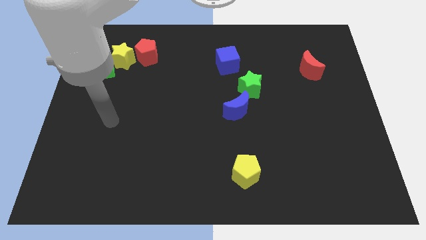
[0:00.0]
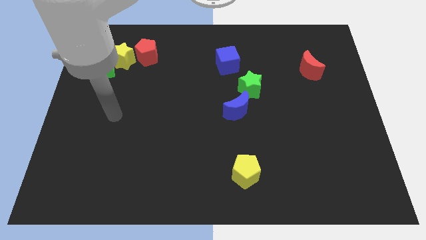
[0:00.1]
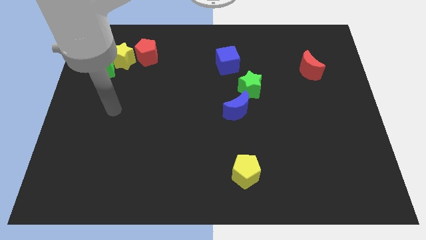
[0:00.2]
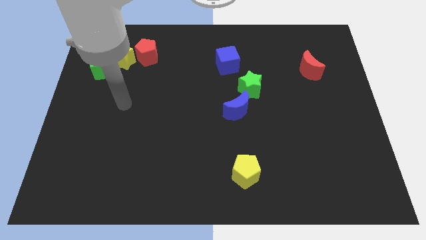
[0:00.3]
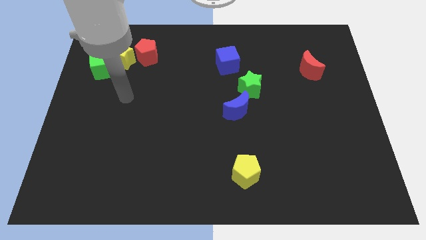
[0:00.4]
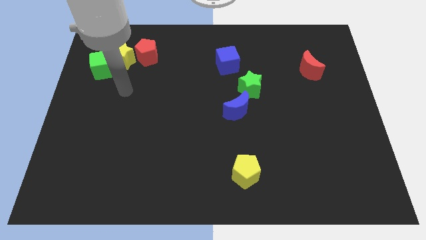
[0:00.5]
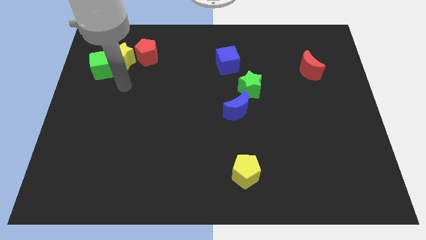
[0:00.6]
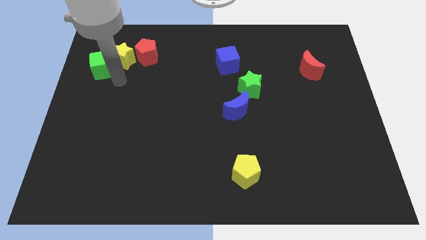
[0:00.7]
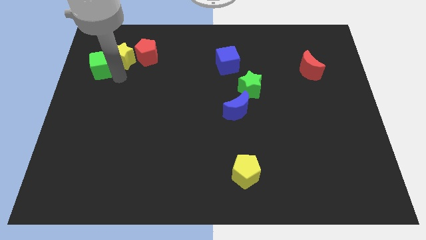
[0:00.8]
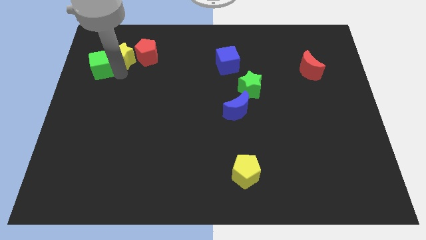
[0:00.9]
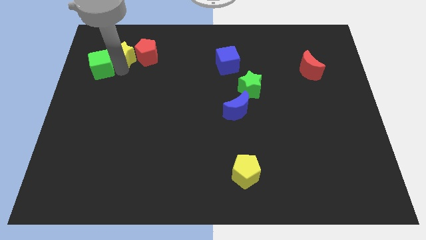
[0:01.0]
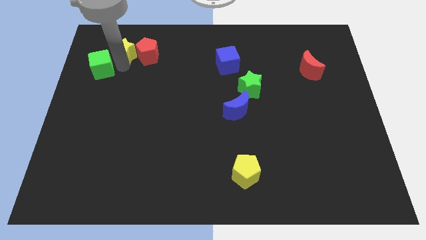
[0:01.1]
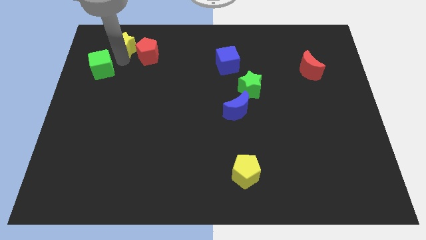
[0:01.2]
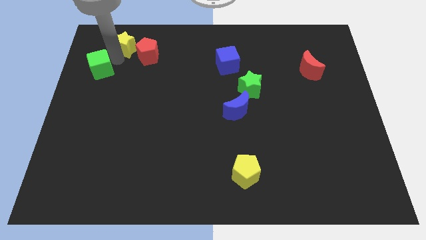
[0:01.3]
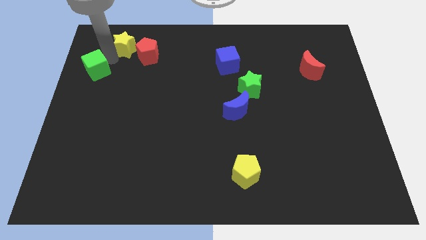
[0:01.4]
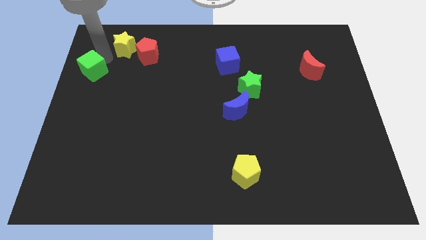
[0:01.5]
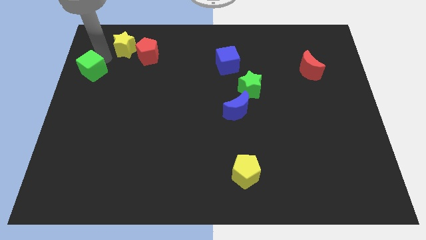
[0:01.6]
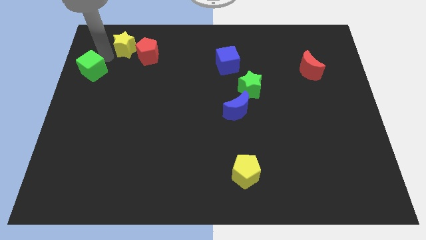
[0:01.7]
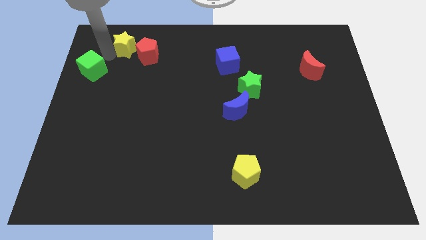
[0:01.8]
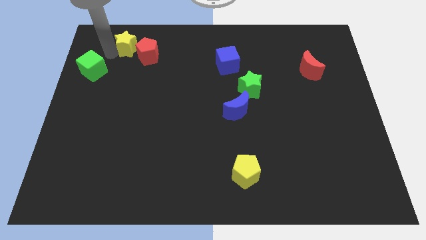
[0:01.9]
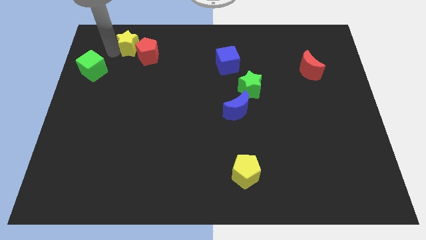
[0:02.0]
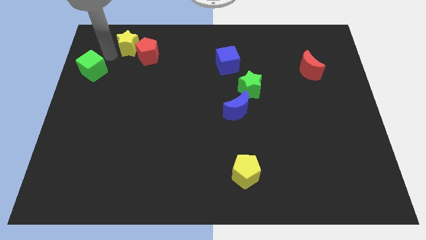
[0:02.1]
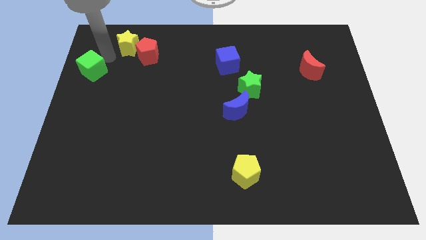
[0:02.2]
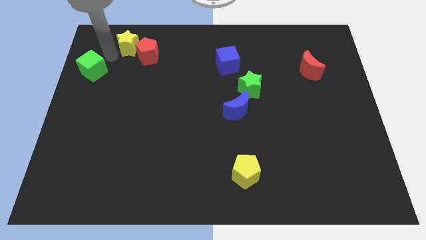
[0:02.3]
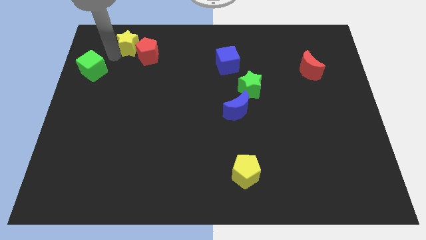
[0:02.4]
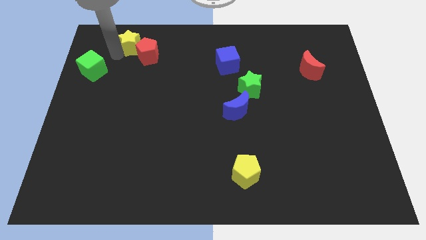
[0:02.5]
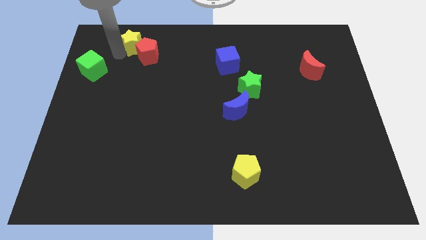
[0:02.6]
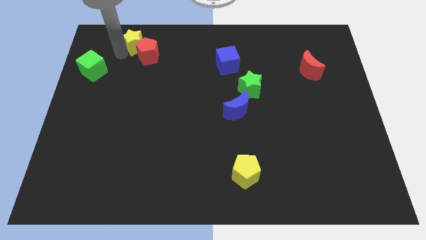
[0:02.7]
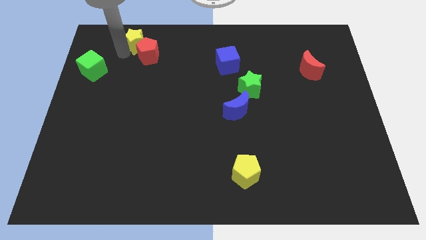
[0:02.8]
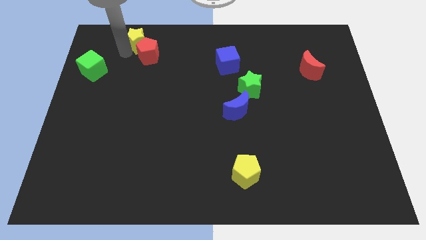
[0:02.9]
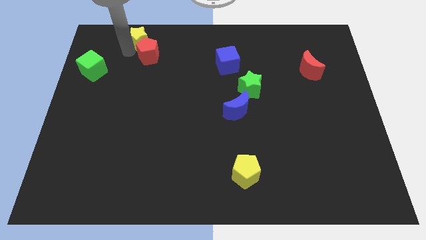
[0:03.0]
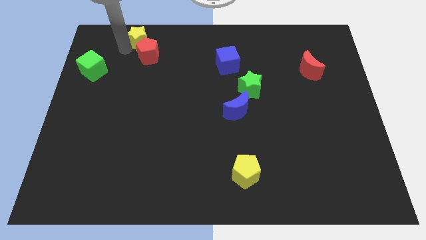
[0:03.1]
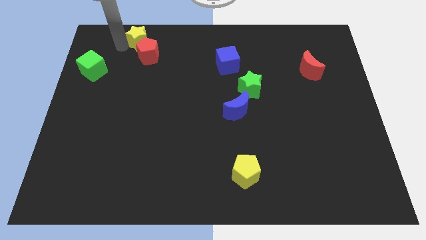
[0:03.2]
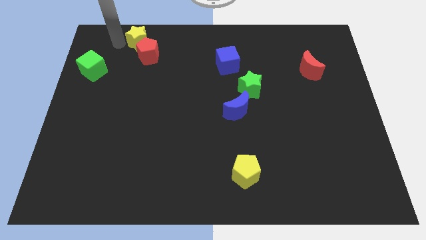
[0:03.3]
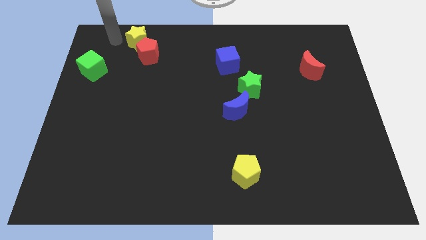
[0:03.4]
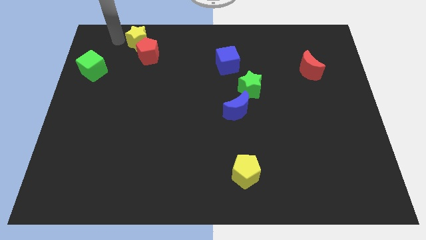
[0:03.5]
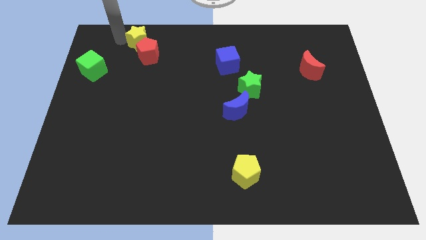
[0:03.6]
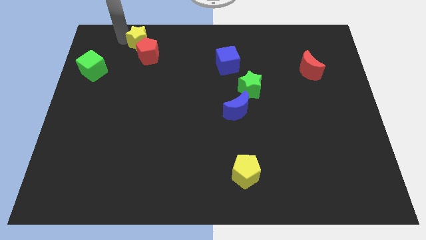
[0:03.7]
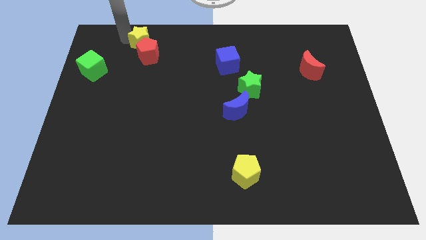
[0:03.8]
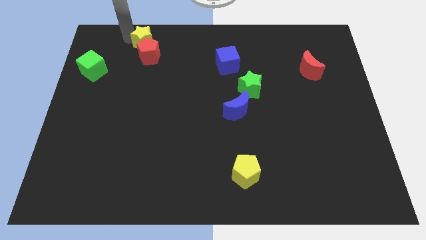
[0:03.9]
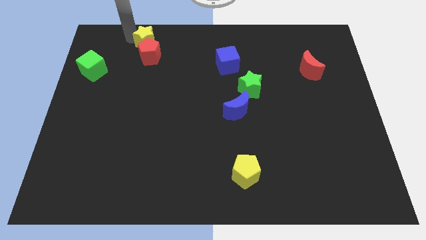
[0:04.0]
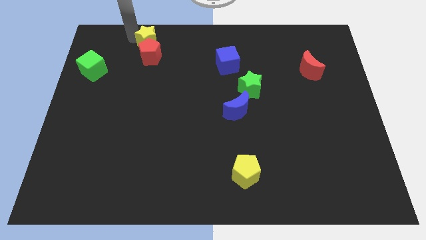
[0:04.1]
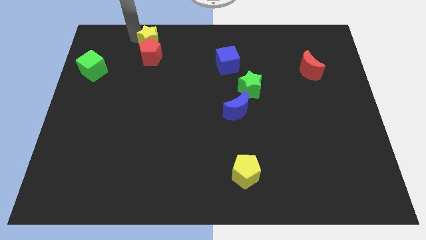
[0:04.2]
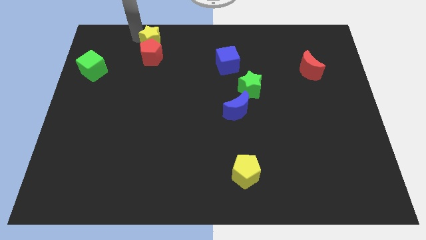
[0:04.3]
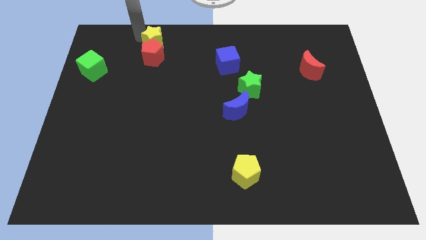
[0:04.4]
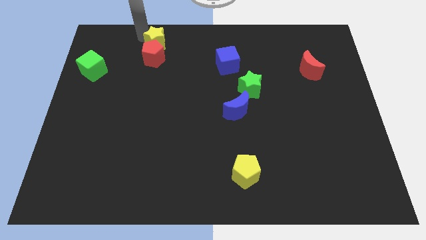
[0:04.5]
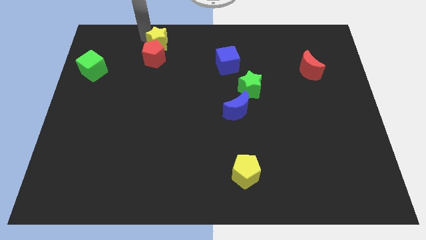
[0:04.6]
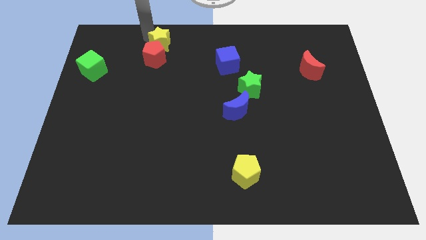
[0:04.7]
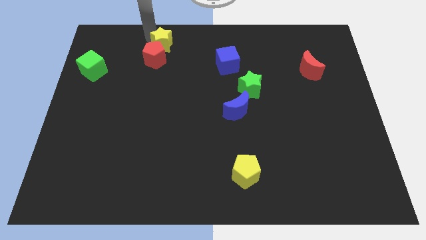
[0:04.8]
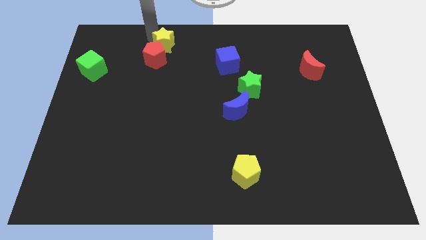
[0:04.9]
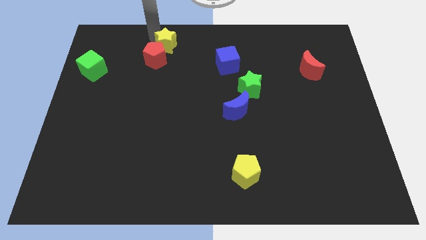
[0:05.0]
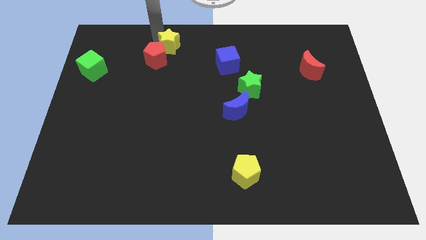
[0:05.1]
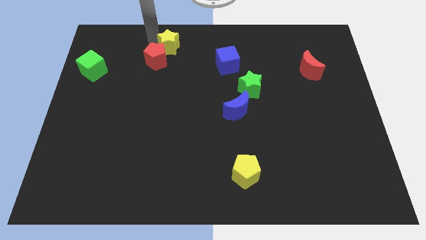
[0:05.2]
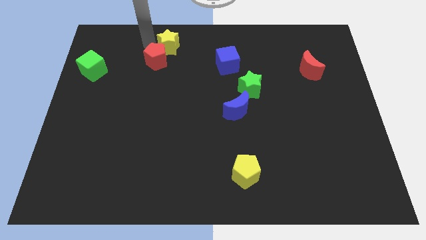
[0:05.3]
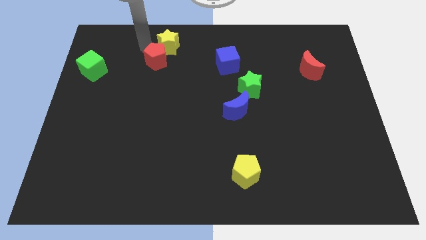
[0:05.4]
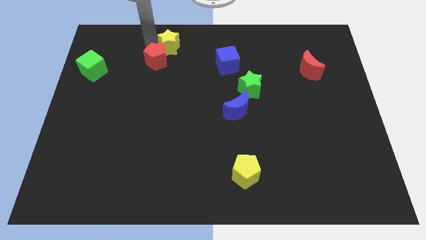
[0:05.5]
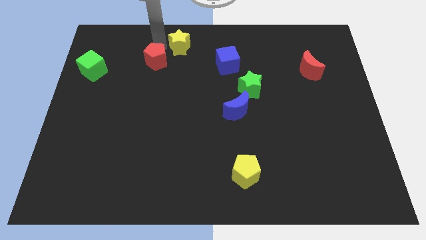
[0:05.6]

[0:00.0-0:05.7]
slide the yellow star to the towards your base
